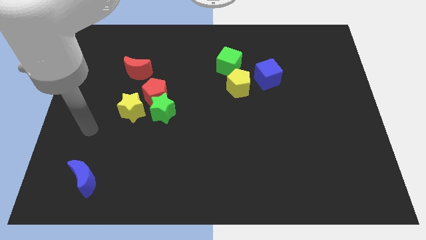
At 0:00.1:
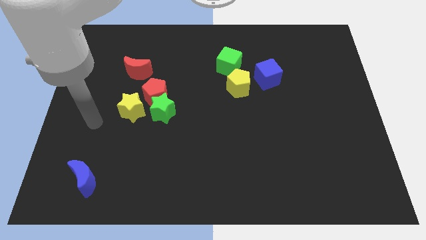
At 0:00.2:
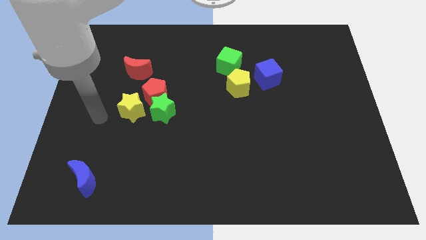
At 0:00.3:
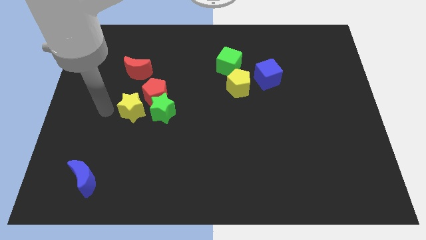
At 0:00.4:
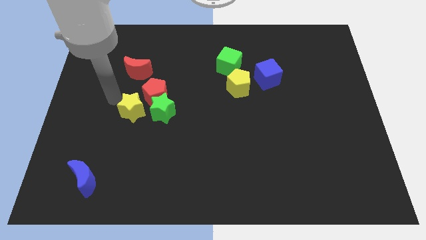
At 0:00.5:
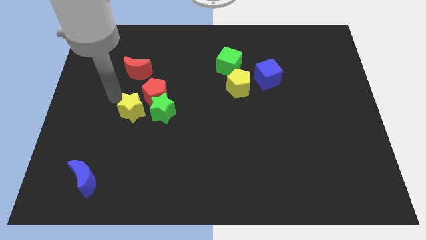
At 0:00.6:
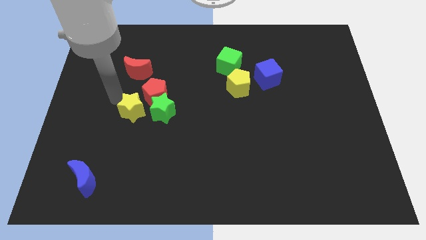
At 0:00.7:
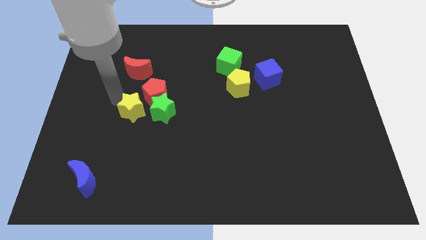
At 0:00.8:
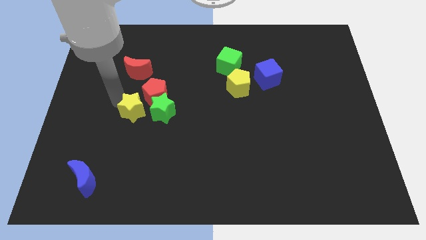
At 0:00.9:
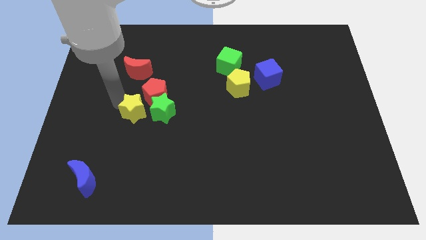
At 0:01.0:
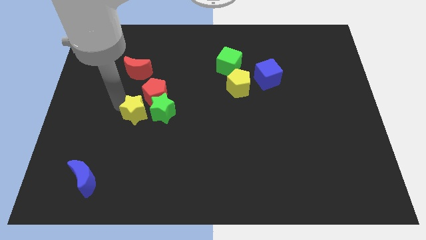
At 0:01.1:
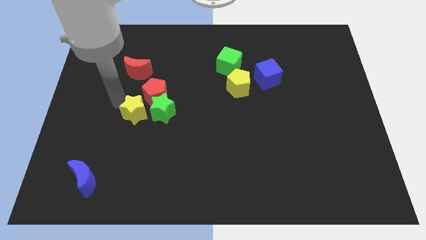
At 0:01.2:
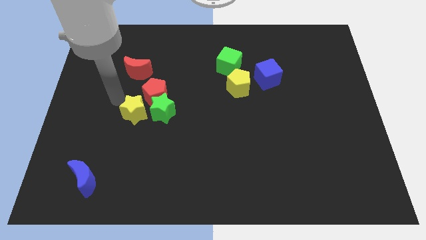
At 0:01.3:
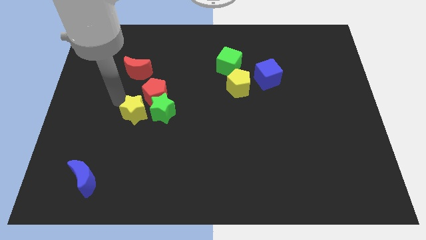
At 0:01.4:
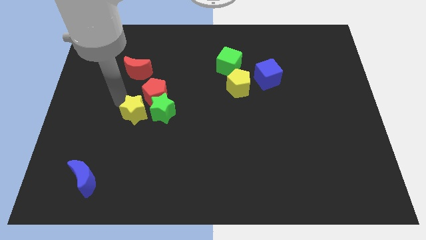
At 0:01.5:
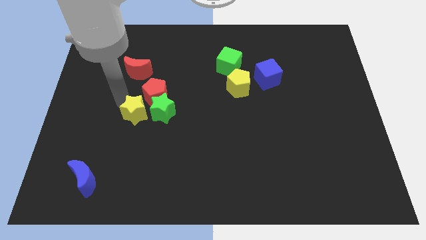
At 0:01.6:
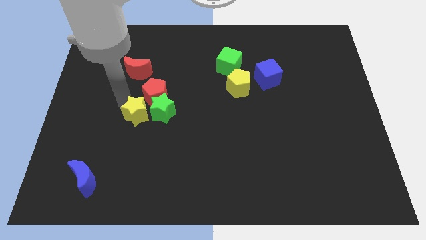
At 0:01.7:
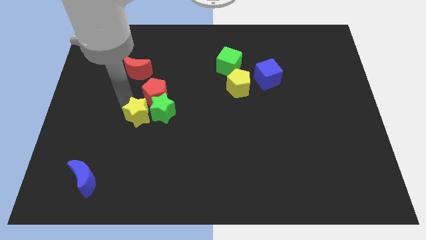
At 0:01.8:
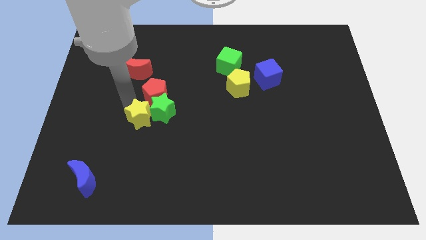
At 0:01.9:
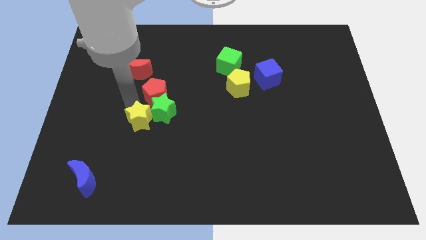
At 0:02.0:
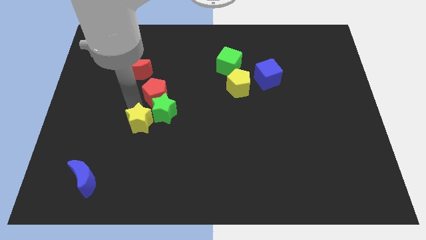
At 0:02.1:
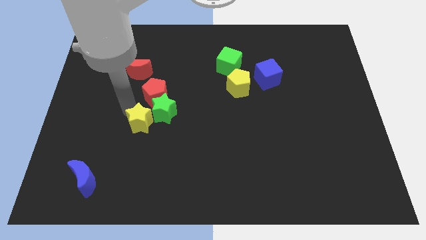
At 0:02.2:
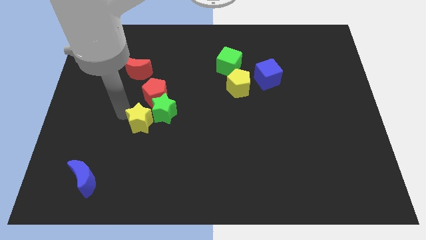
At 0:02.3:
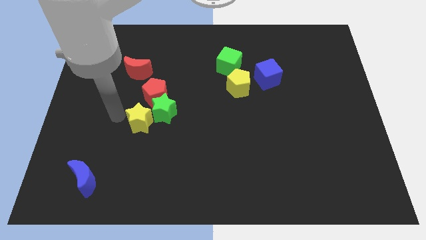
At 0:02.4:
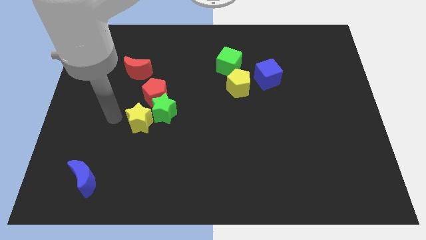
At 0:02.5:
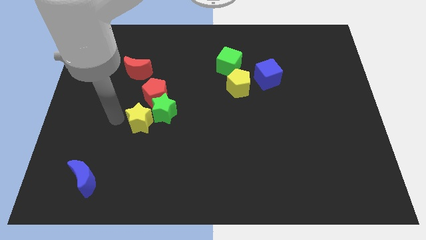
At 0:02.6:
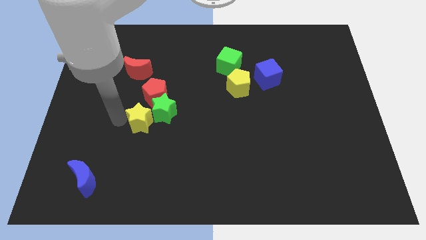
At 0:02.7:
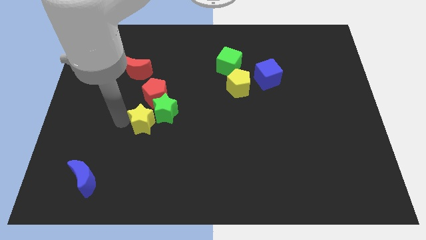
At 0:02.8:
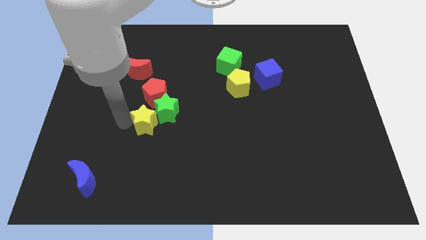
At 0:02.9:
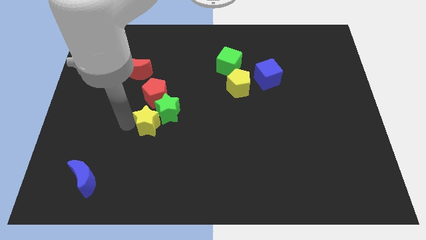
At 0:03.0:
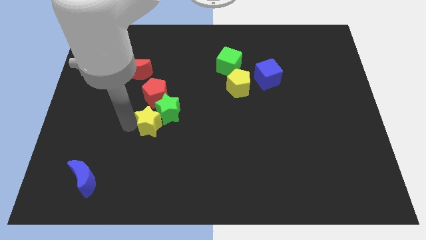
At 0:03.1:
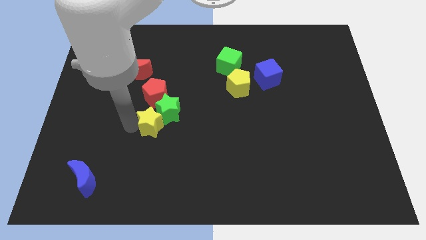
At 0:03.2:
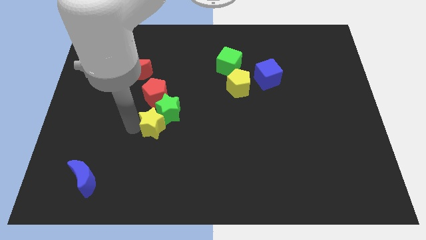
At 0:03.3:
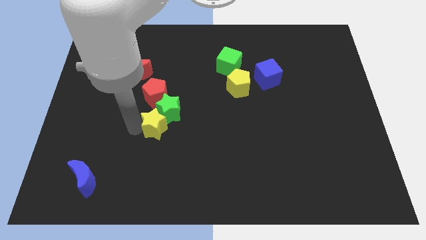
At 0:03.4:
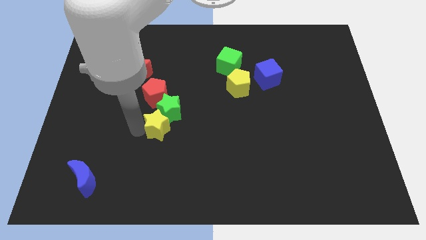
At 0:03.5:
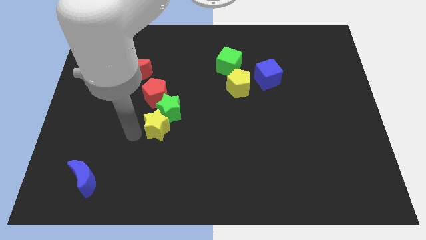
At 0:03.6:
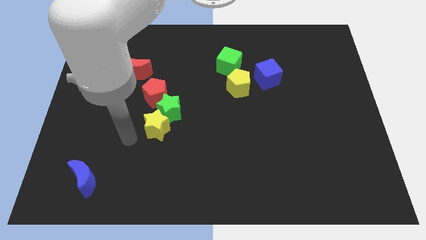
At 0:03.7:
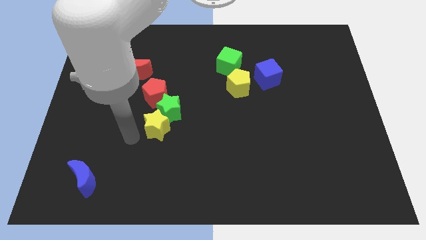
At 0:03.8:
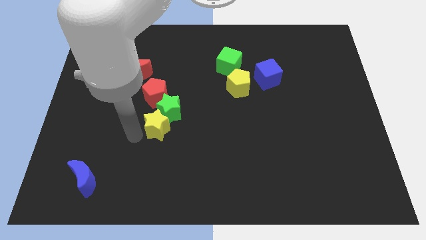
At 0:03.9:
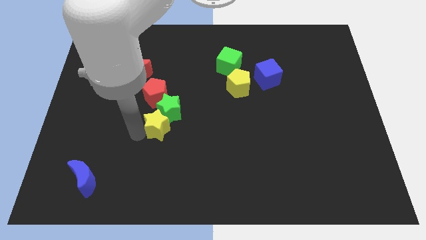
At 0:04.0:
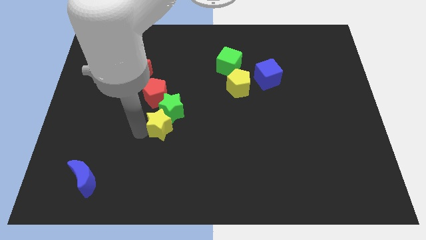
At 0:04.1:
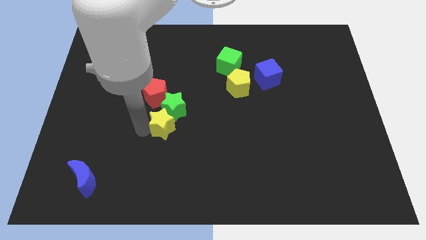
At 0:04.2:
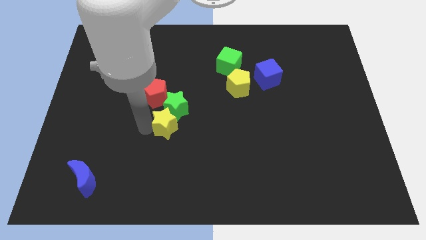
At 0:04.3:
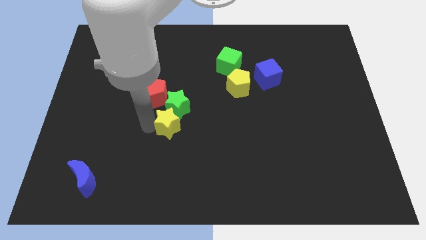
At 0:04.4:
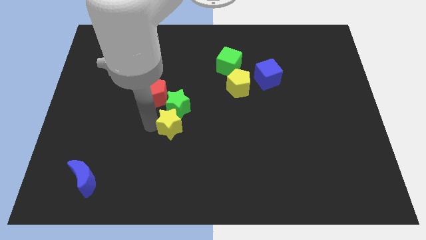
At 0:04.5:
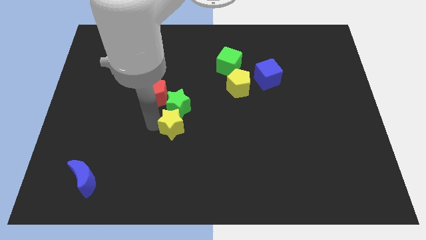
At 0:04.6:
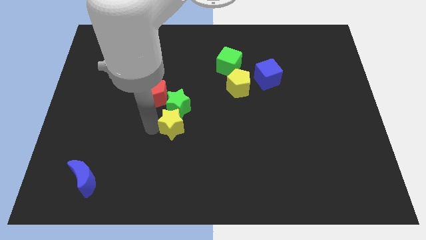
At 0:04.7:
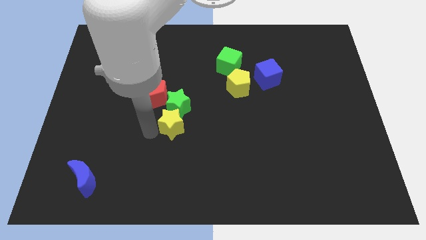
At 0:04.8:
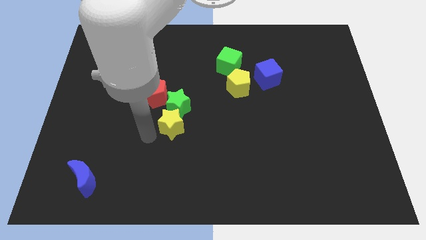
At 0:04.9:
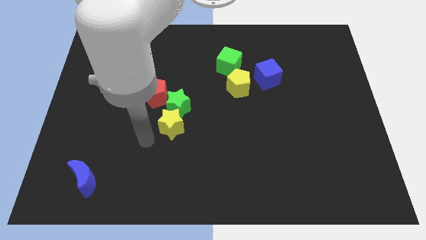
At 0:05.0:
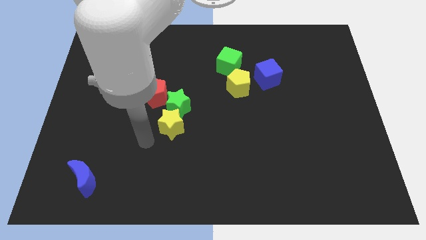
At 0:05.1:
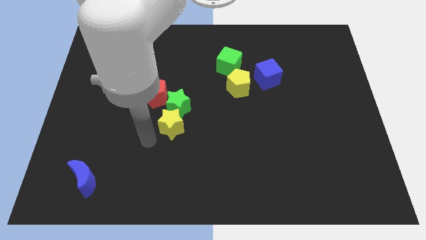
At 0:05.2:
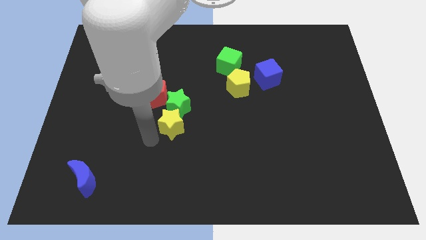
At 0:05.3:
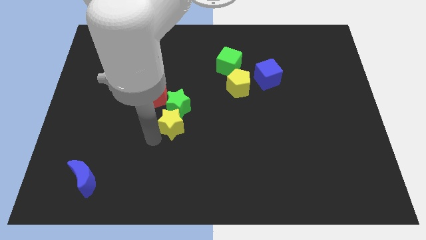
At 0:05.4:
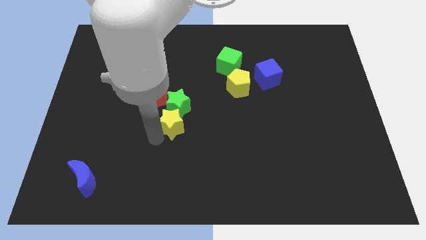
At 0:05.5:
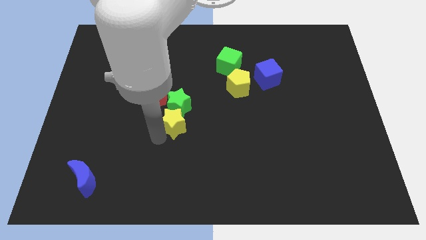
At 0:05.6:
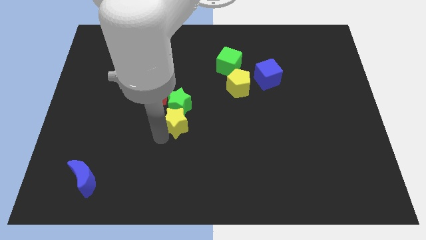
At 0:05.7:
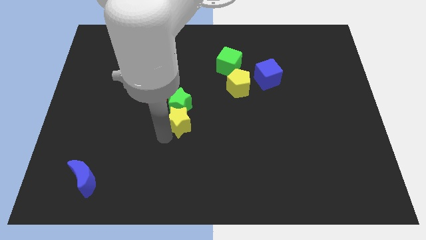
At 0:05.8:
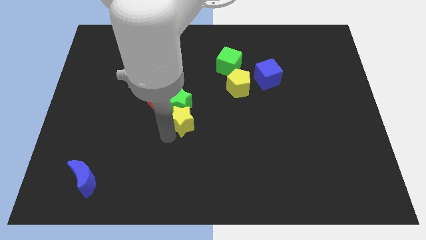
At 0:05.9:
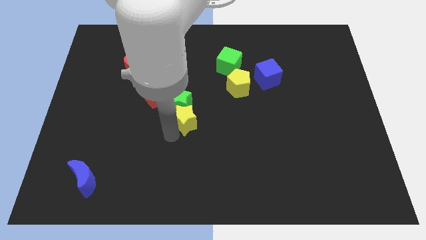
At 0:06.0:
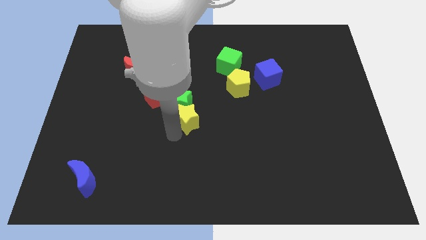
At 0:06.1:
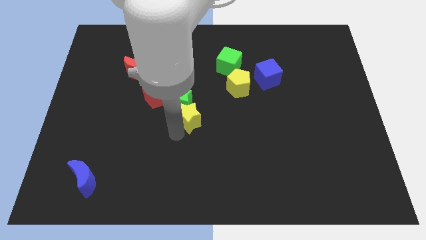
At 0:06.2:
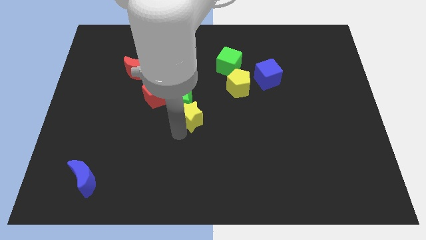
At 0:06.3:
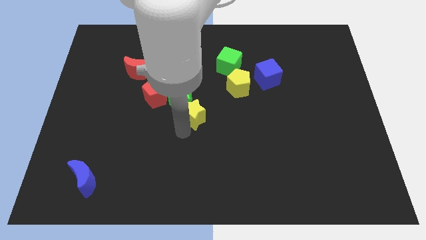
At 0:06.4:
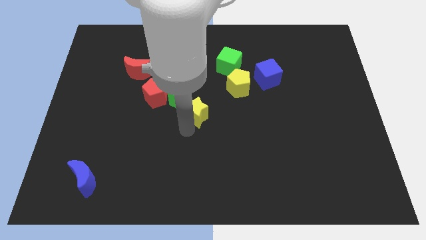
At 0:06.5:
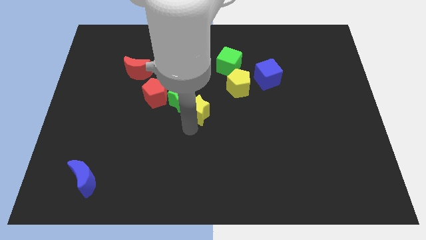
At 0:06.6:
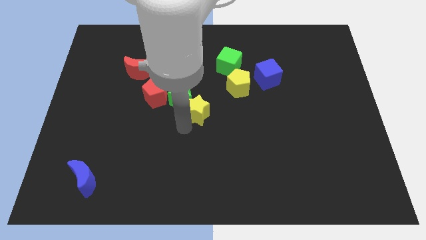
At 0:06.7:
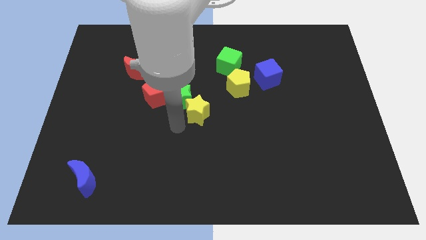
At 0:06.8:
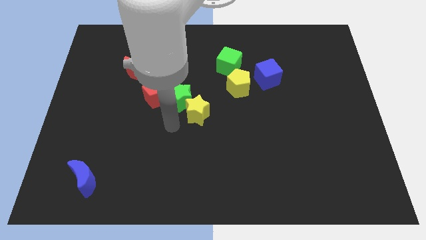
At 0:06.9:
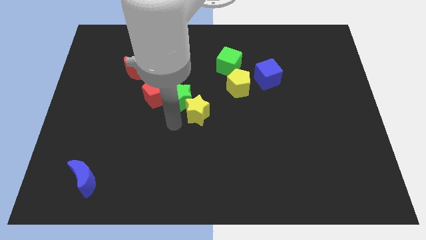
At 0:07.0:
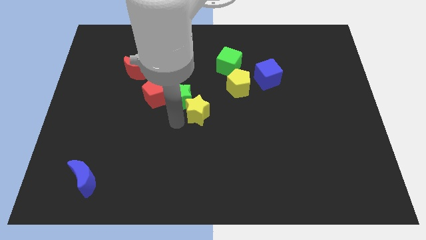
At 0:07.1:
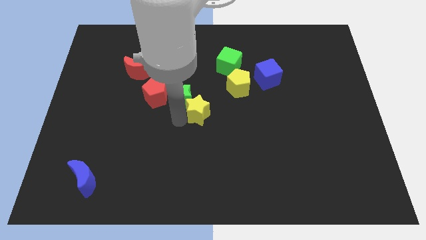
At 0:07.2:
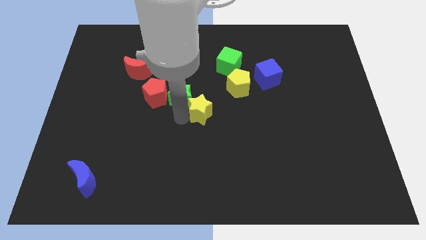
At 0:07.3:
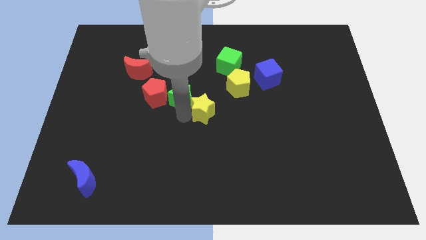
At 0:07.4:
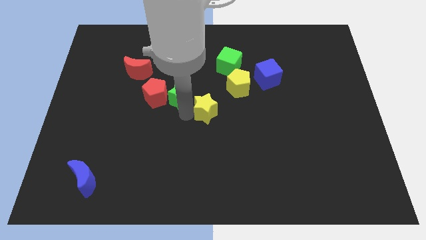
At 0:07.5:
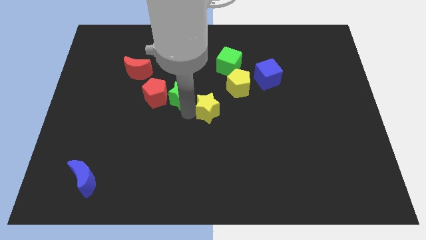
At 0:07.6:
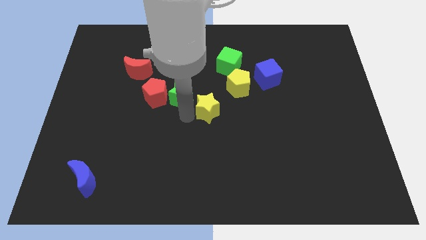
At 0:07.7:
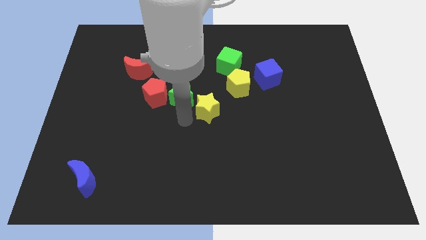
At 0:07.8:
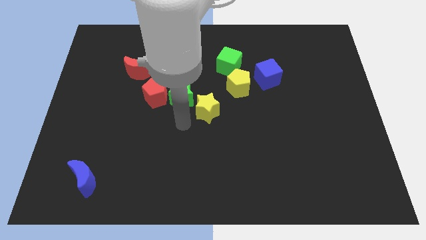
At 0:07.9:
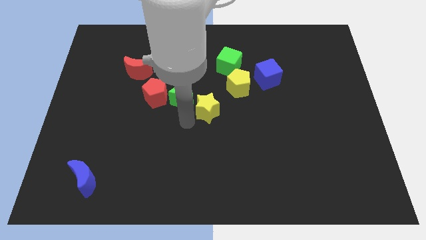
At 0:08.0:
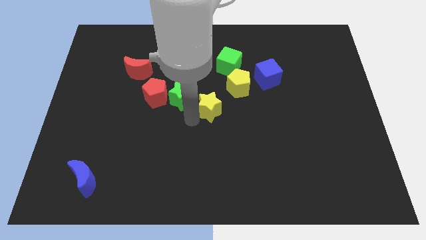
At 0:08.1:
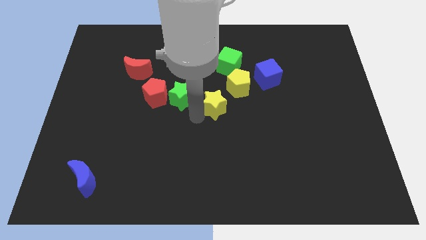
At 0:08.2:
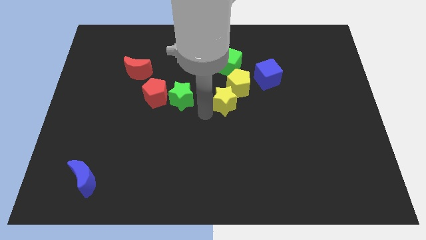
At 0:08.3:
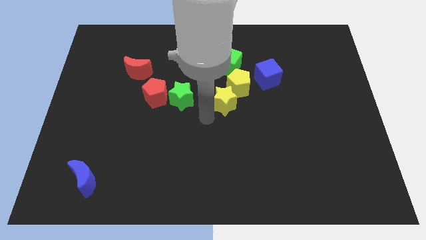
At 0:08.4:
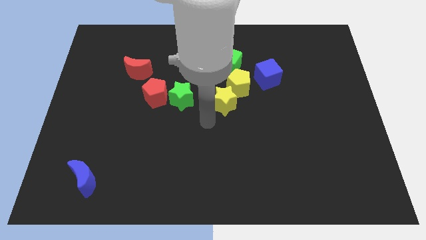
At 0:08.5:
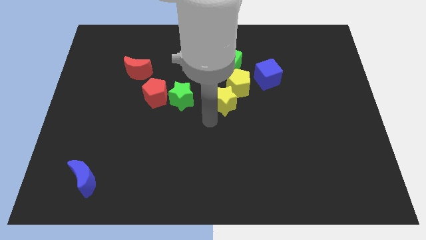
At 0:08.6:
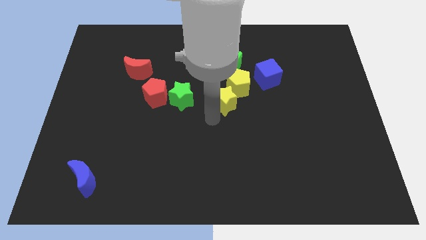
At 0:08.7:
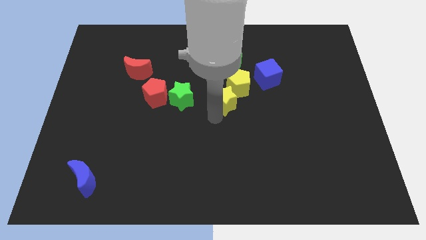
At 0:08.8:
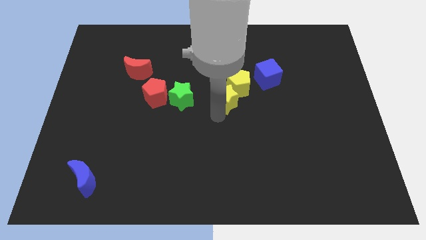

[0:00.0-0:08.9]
put the yellow star close to the yellow pentagon
